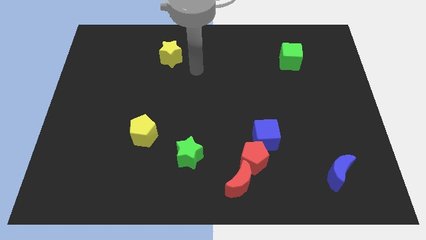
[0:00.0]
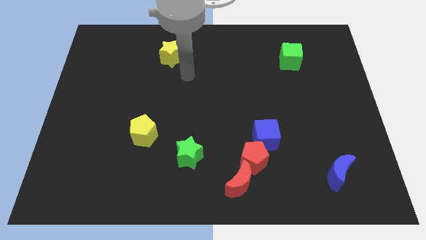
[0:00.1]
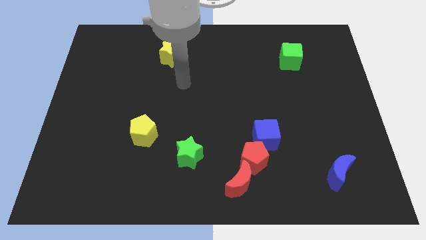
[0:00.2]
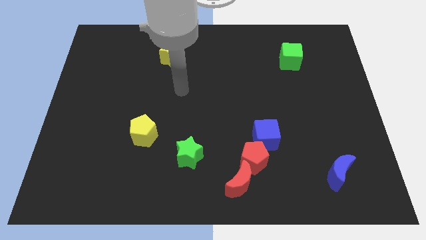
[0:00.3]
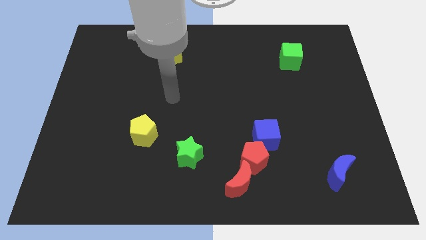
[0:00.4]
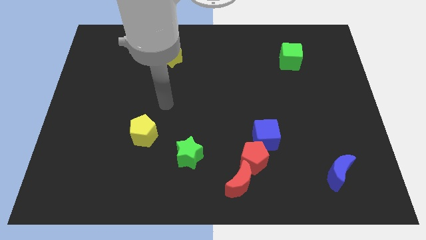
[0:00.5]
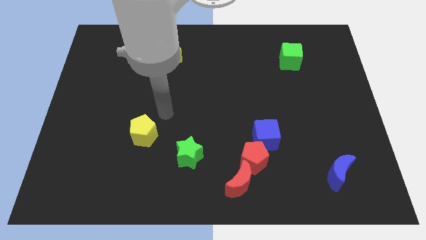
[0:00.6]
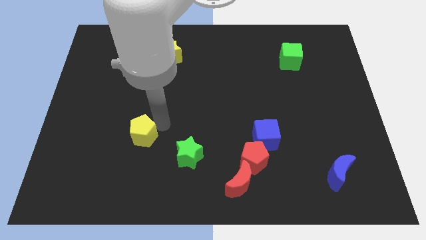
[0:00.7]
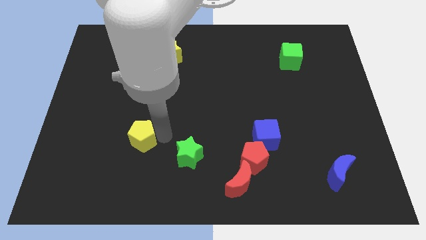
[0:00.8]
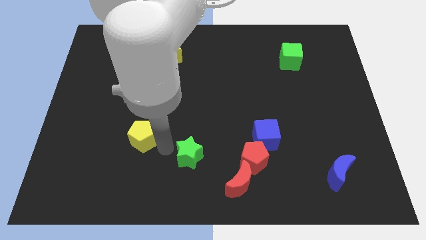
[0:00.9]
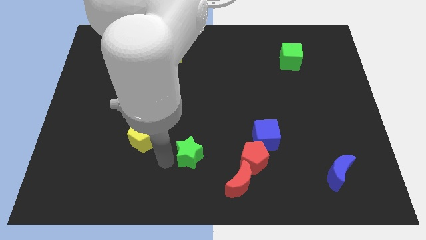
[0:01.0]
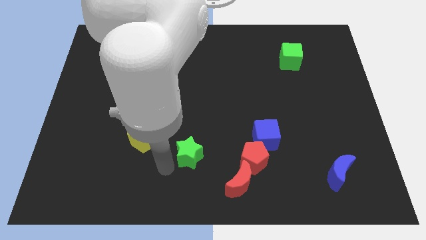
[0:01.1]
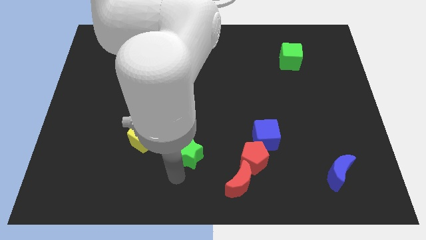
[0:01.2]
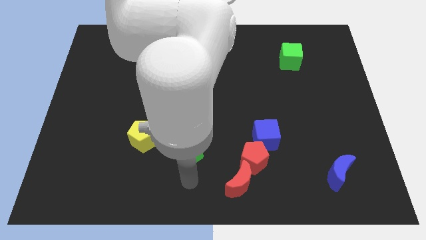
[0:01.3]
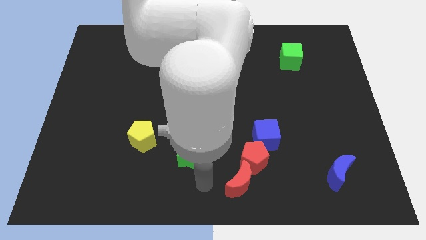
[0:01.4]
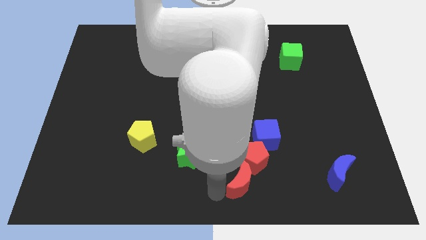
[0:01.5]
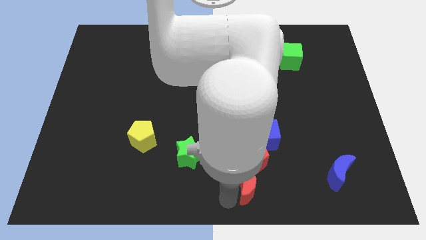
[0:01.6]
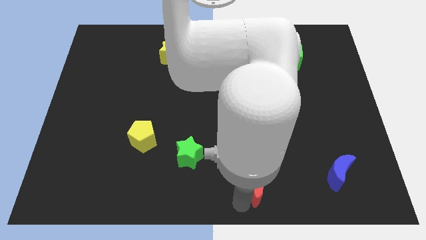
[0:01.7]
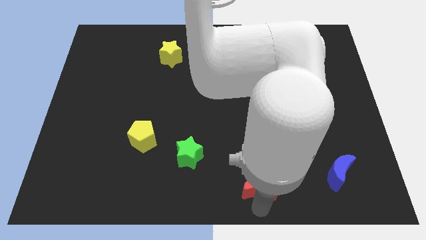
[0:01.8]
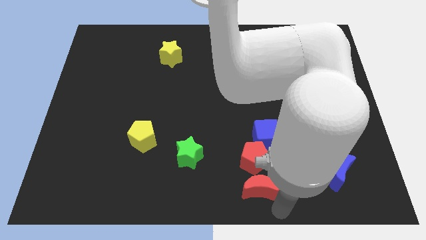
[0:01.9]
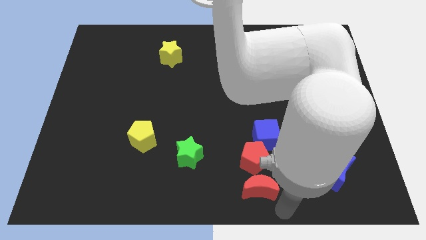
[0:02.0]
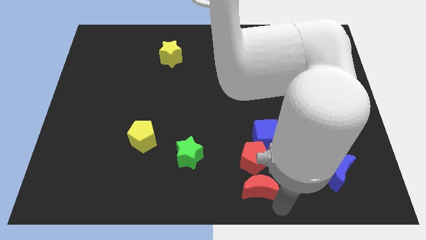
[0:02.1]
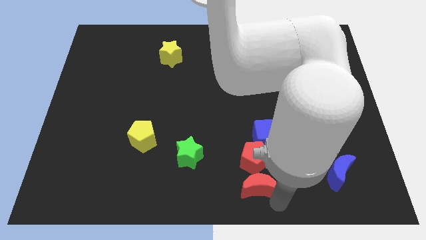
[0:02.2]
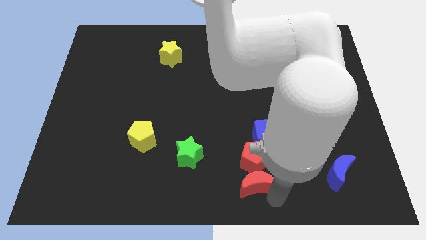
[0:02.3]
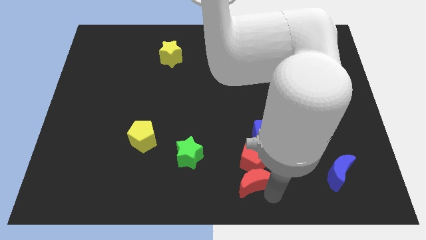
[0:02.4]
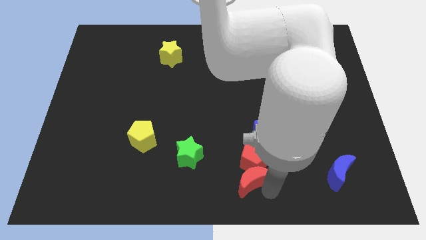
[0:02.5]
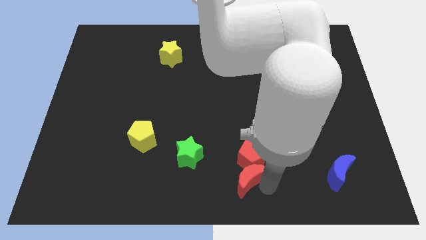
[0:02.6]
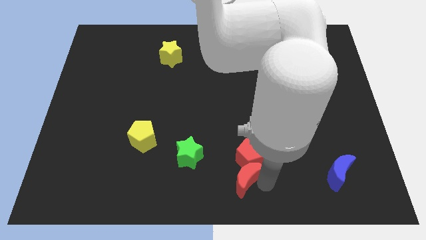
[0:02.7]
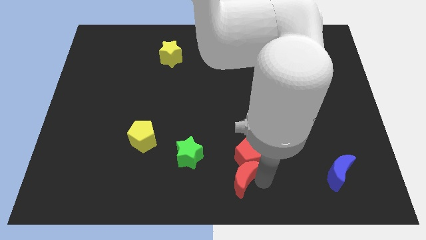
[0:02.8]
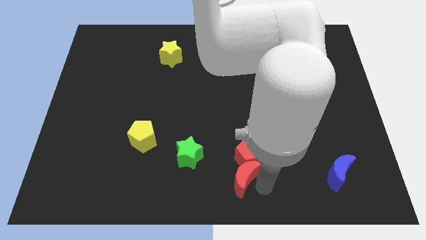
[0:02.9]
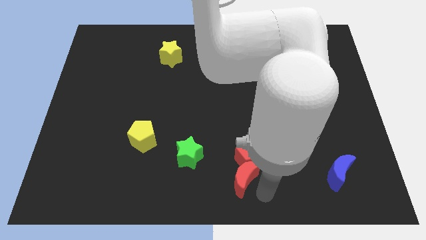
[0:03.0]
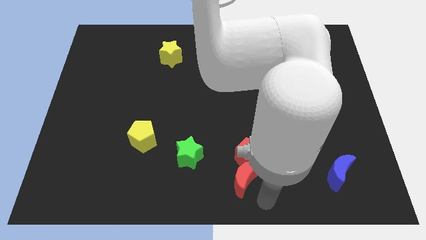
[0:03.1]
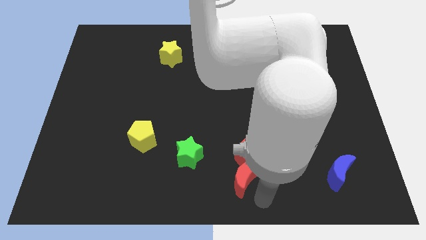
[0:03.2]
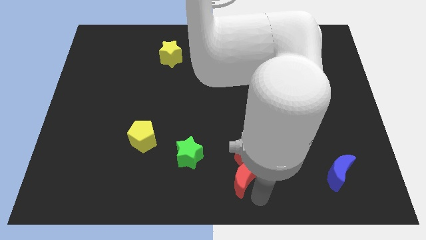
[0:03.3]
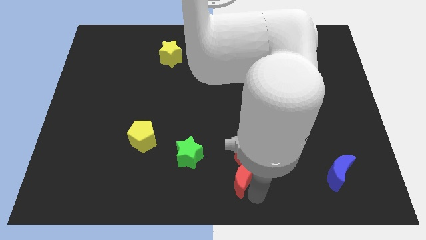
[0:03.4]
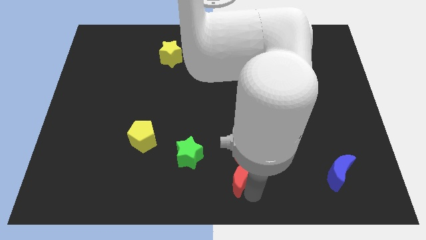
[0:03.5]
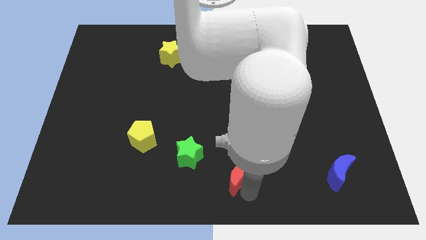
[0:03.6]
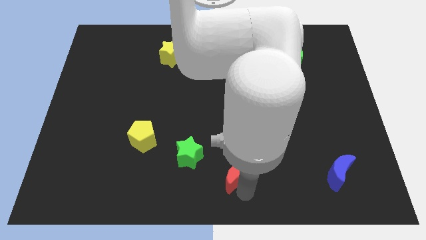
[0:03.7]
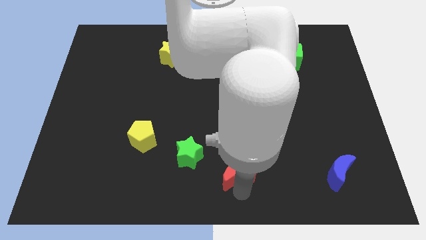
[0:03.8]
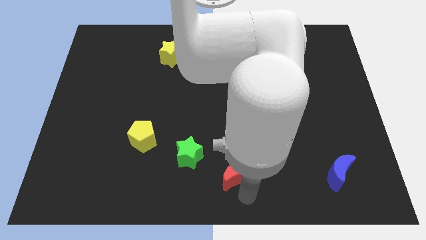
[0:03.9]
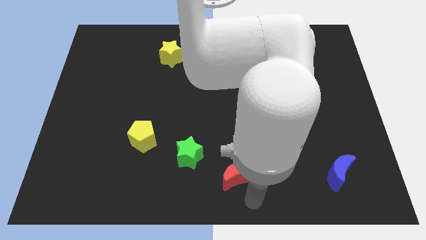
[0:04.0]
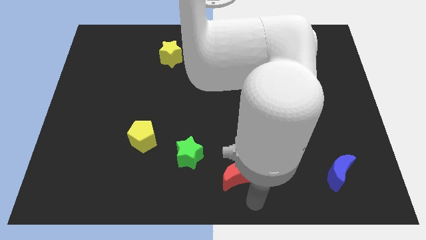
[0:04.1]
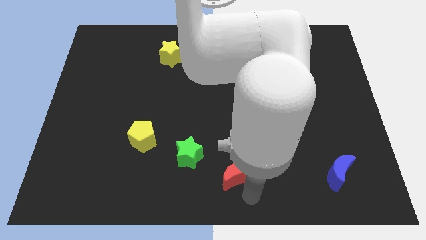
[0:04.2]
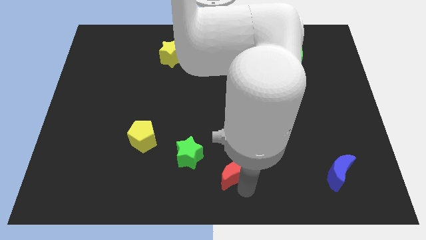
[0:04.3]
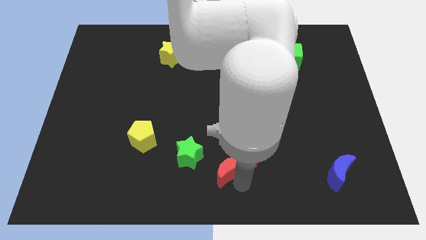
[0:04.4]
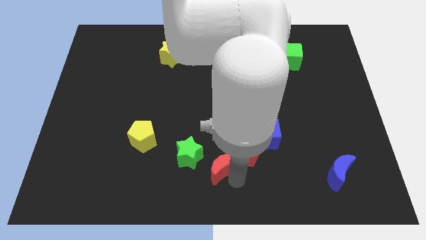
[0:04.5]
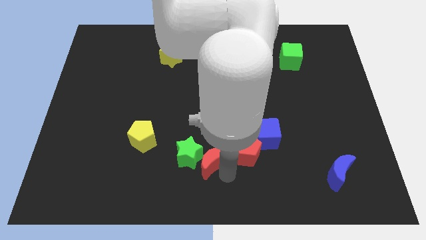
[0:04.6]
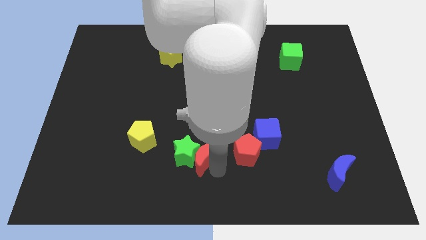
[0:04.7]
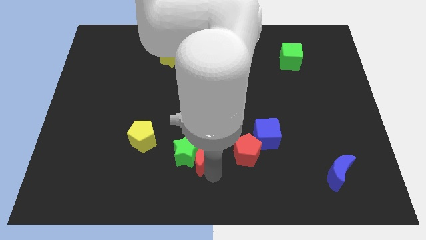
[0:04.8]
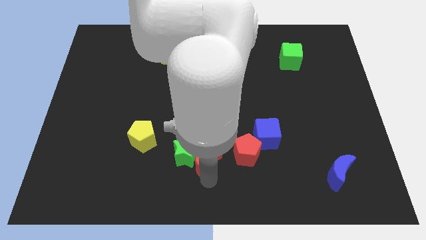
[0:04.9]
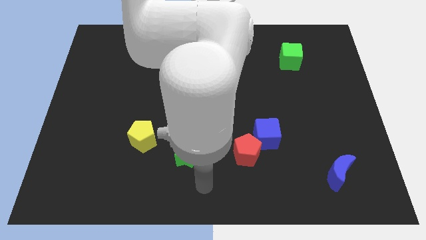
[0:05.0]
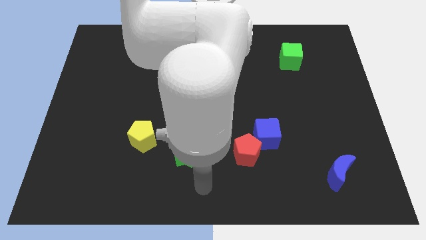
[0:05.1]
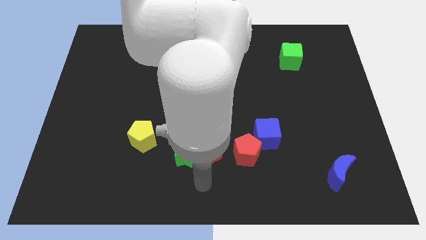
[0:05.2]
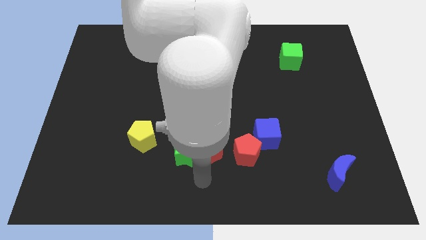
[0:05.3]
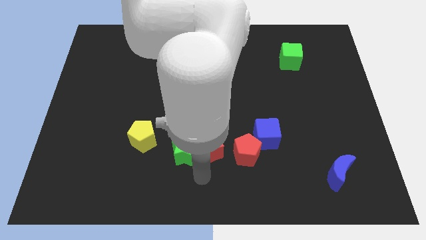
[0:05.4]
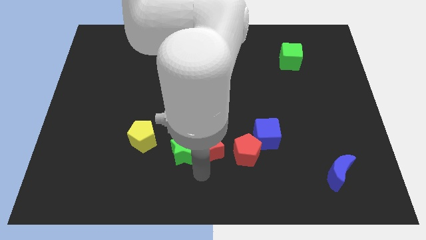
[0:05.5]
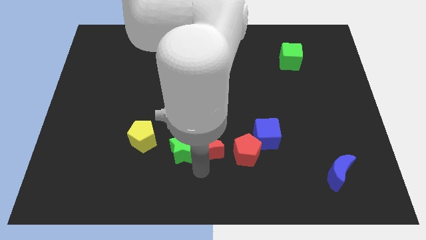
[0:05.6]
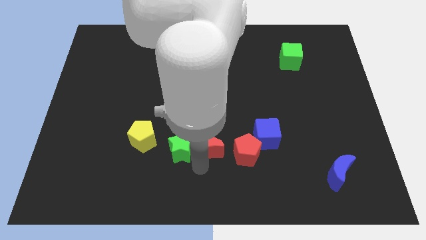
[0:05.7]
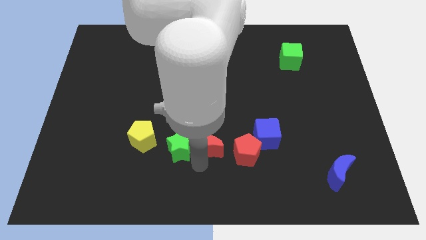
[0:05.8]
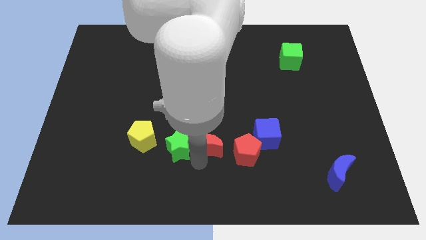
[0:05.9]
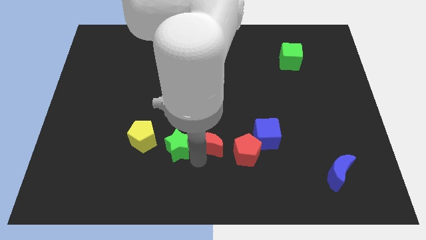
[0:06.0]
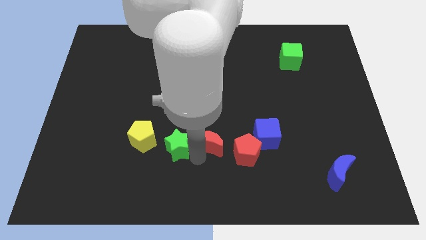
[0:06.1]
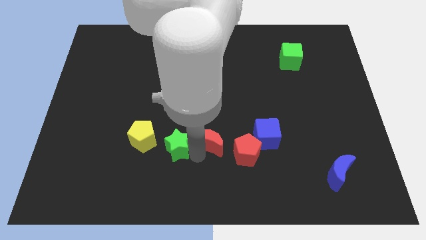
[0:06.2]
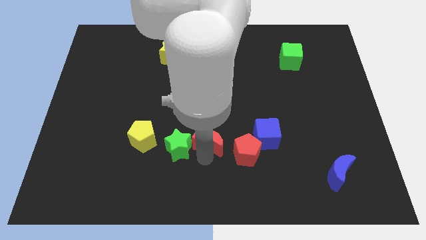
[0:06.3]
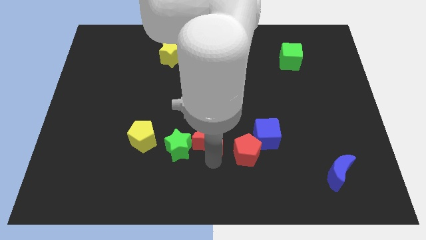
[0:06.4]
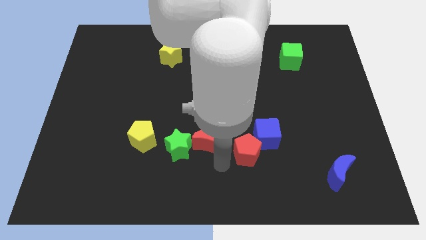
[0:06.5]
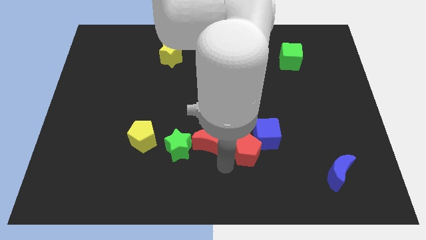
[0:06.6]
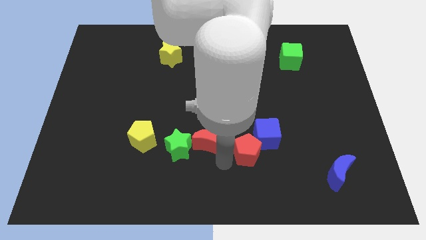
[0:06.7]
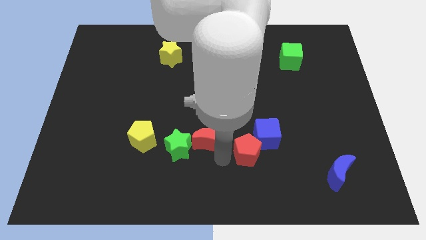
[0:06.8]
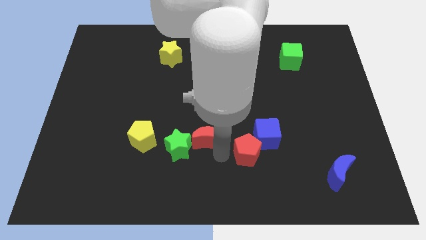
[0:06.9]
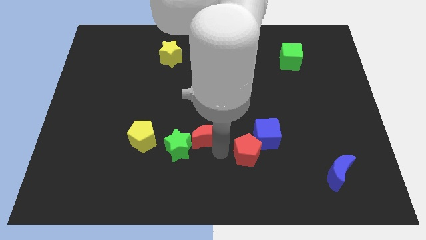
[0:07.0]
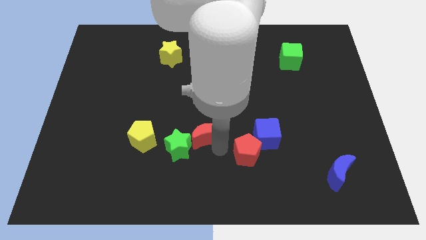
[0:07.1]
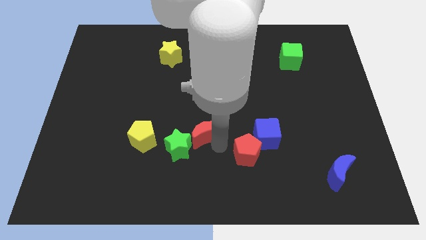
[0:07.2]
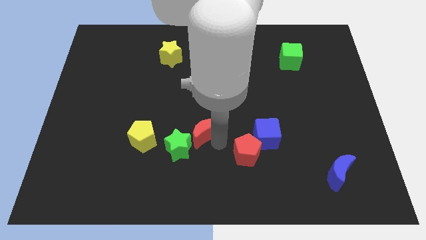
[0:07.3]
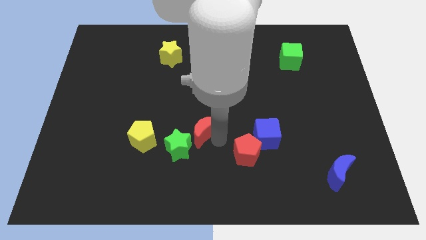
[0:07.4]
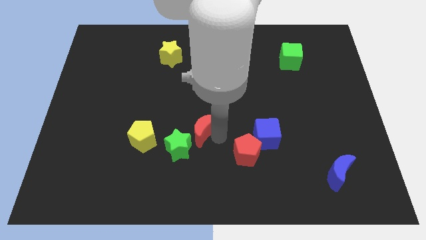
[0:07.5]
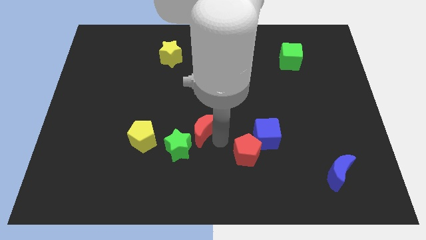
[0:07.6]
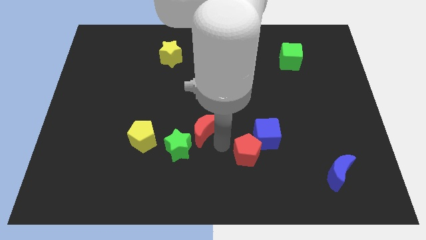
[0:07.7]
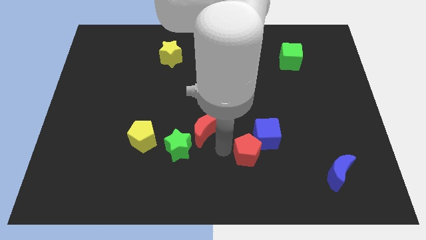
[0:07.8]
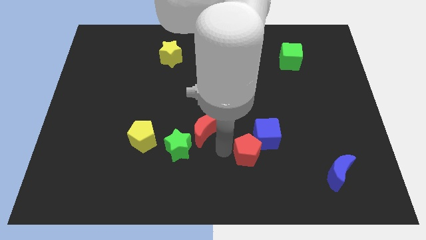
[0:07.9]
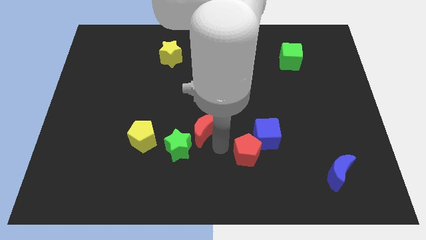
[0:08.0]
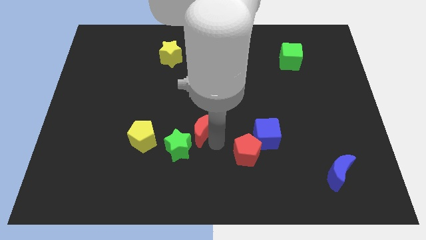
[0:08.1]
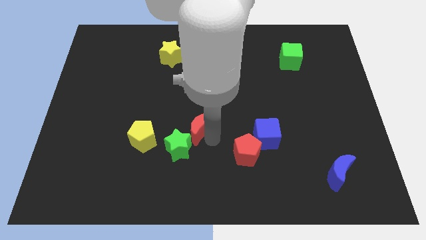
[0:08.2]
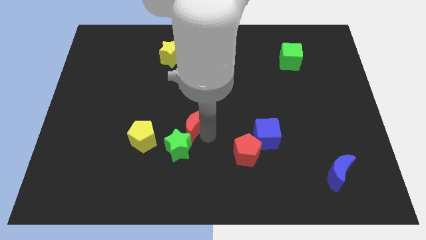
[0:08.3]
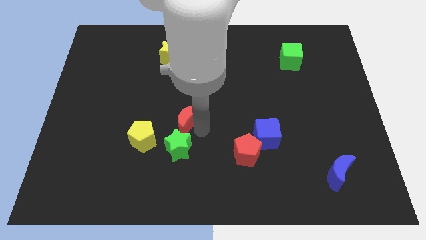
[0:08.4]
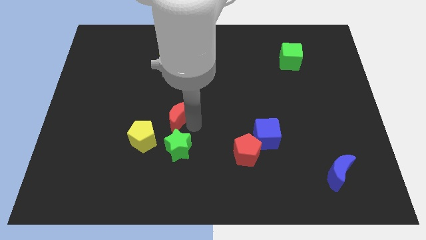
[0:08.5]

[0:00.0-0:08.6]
slide the red moon up and then to the left
